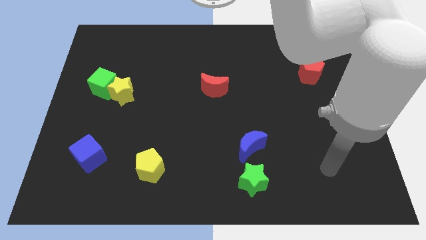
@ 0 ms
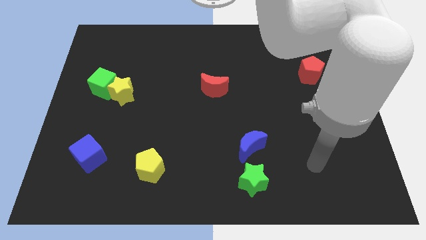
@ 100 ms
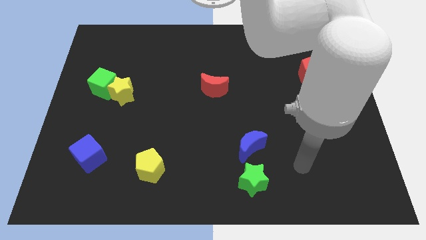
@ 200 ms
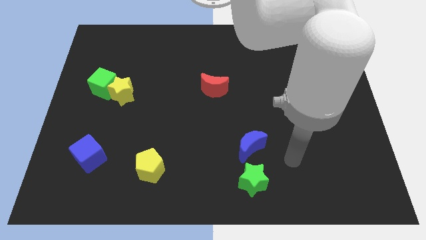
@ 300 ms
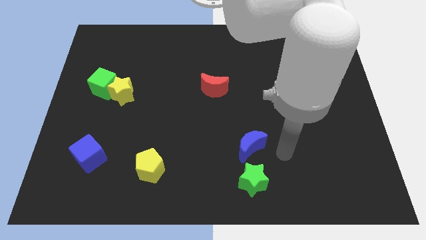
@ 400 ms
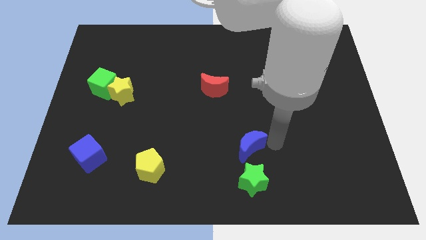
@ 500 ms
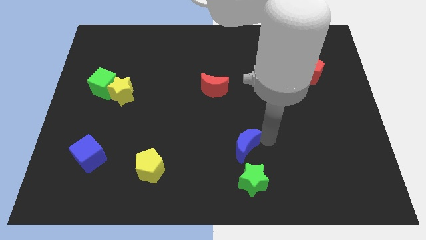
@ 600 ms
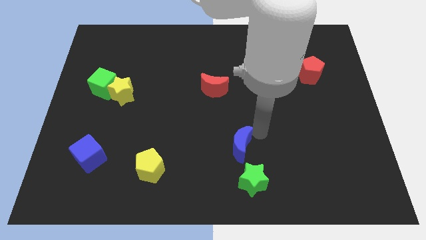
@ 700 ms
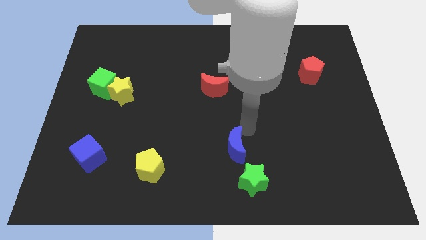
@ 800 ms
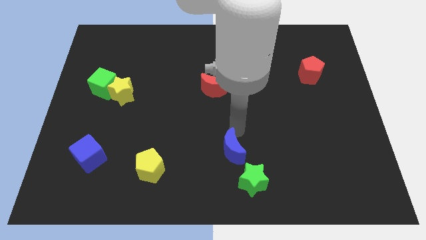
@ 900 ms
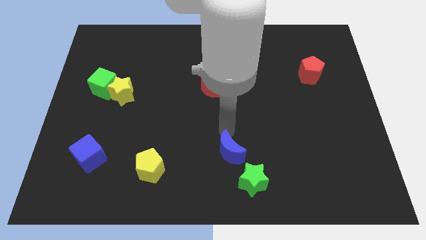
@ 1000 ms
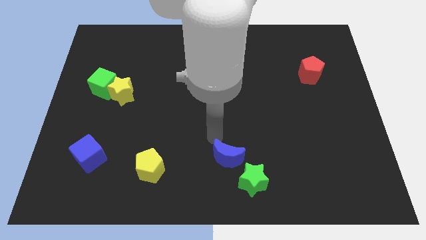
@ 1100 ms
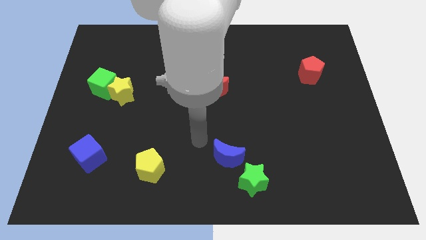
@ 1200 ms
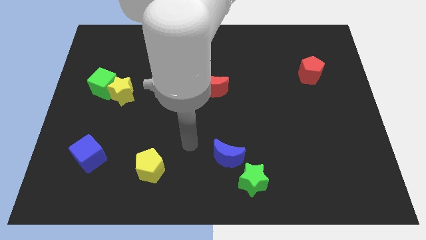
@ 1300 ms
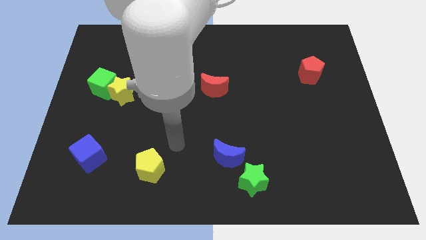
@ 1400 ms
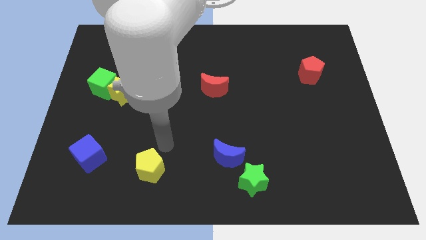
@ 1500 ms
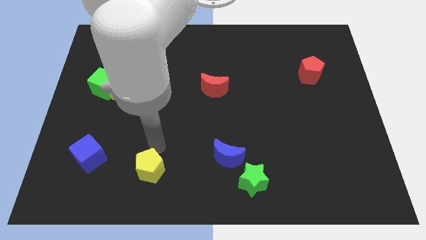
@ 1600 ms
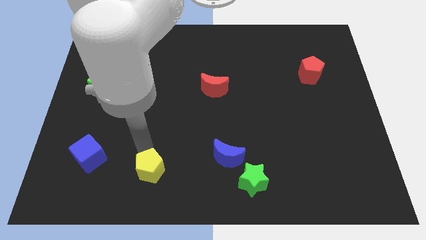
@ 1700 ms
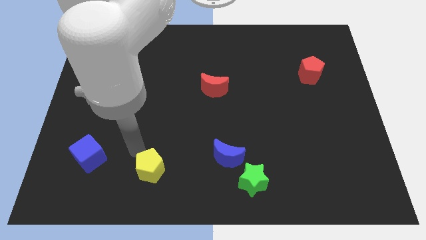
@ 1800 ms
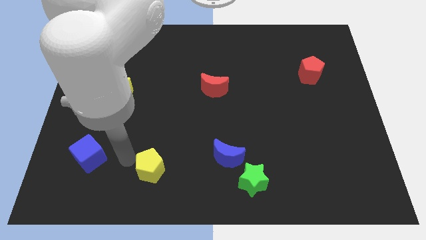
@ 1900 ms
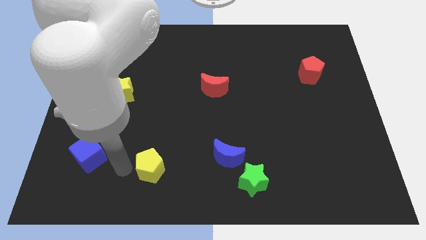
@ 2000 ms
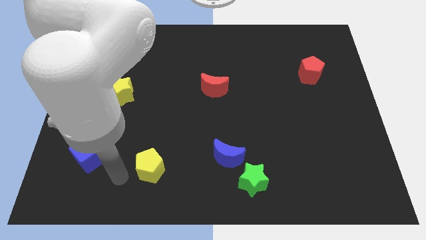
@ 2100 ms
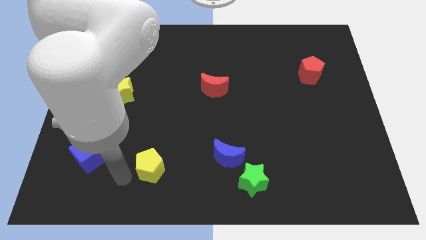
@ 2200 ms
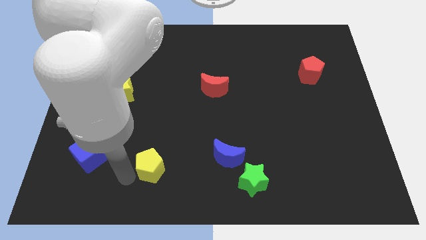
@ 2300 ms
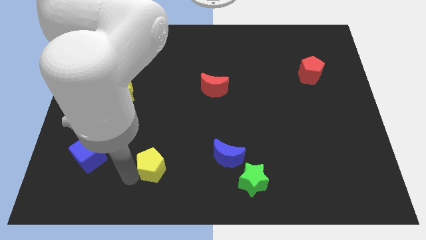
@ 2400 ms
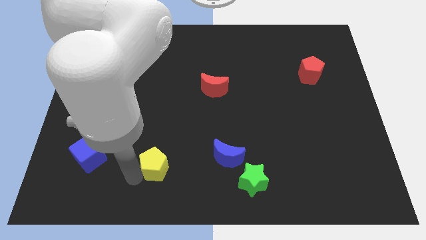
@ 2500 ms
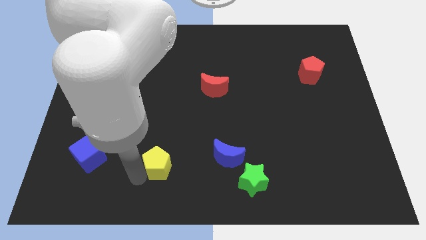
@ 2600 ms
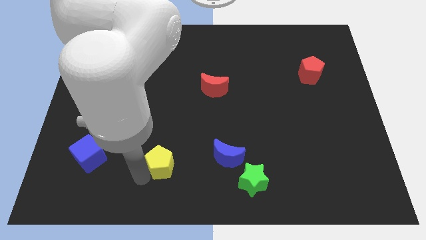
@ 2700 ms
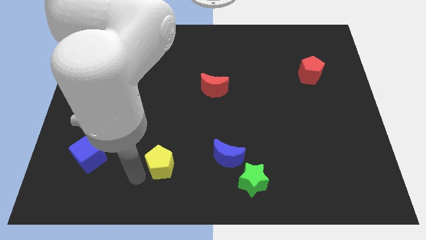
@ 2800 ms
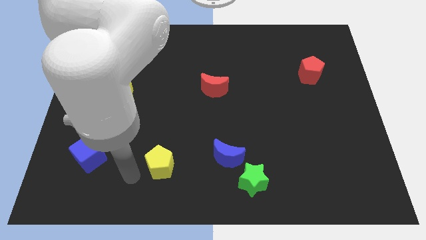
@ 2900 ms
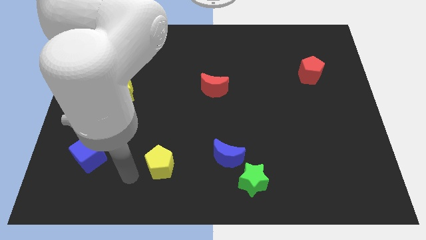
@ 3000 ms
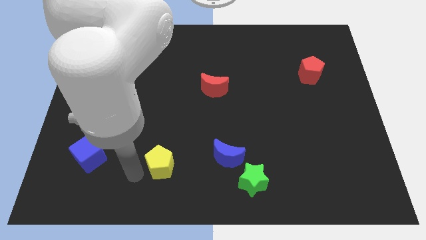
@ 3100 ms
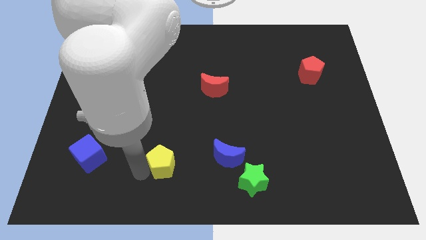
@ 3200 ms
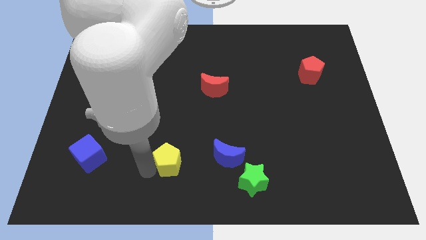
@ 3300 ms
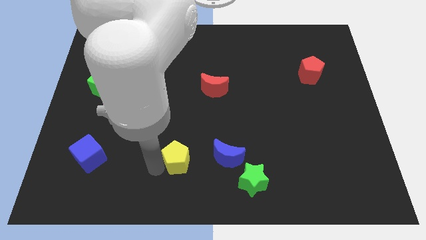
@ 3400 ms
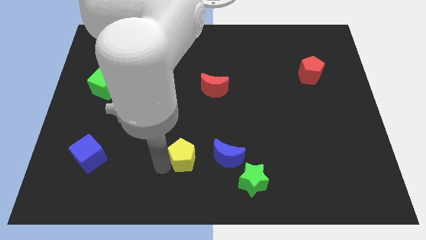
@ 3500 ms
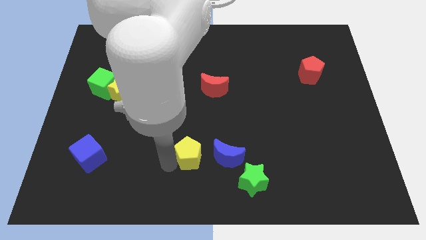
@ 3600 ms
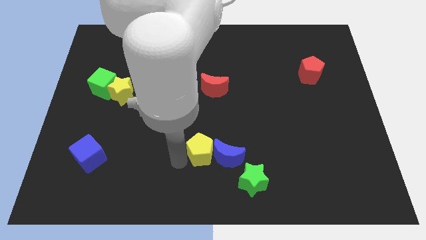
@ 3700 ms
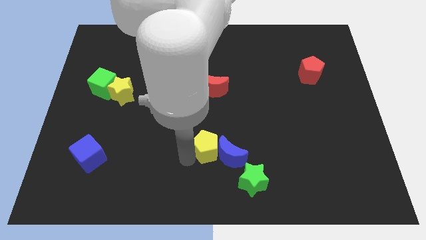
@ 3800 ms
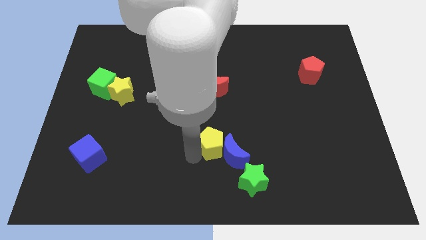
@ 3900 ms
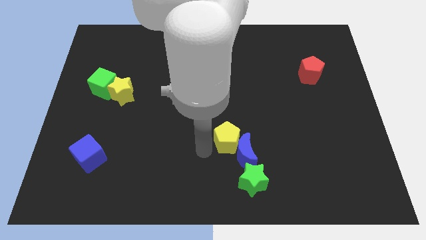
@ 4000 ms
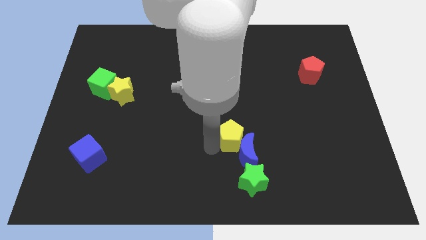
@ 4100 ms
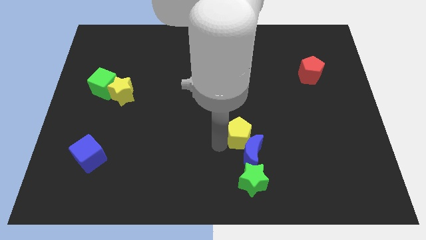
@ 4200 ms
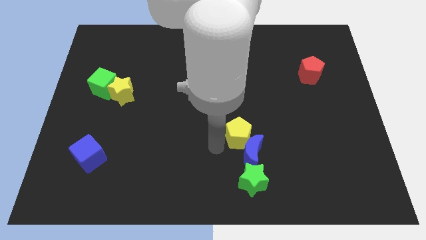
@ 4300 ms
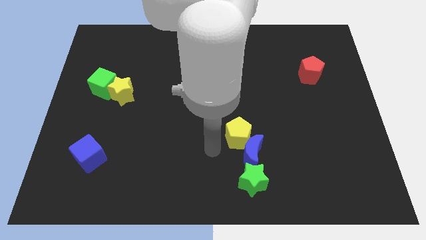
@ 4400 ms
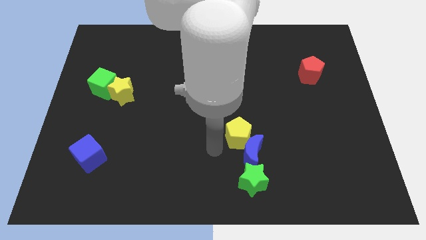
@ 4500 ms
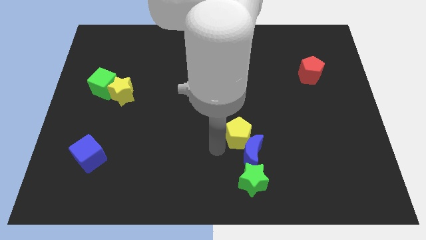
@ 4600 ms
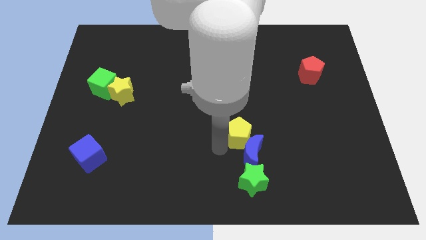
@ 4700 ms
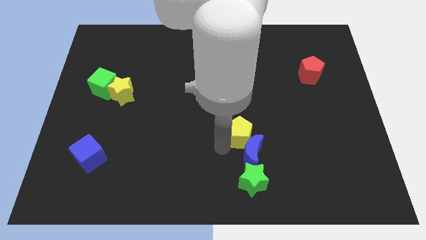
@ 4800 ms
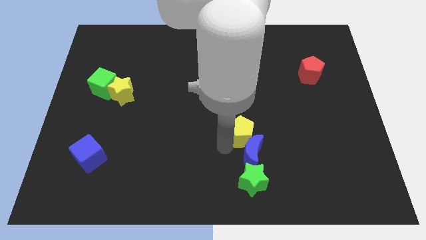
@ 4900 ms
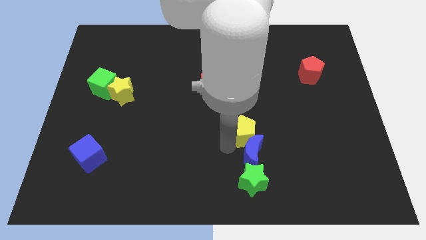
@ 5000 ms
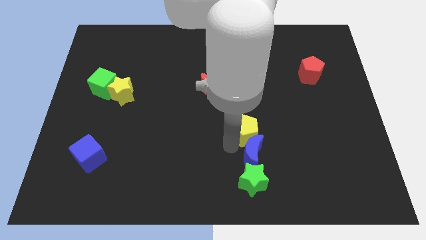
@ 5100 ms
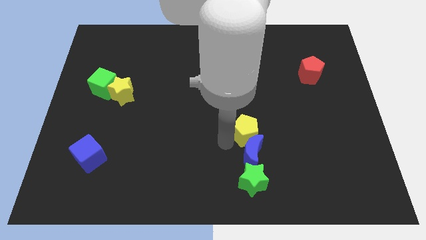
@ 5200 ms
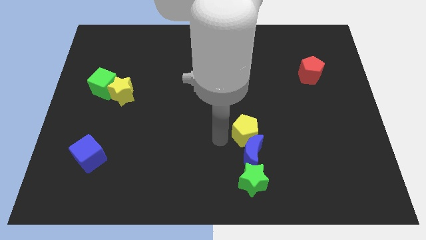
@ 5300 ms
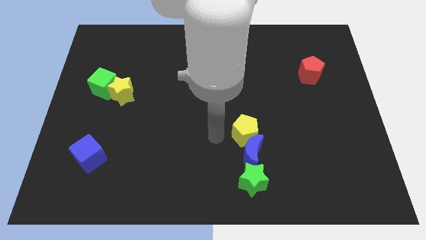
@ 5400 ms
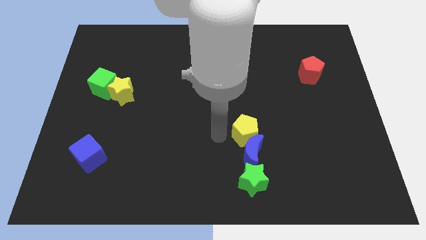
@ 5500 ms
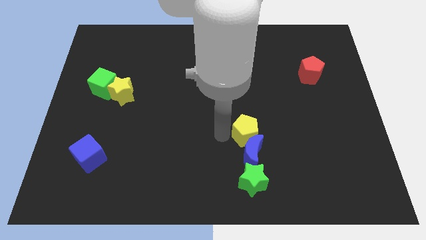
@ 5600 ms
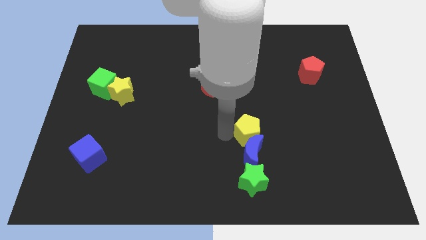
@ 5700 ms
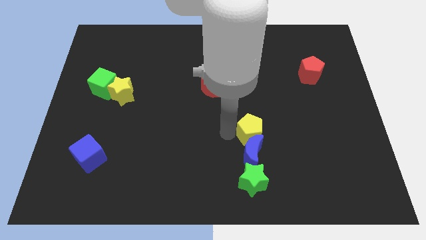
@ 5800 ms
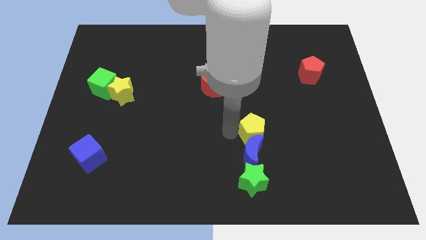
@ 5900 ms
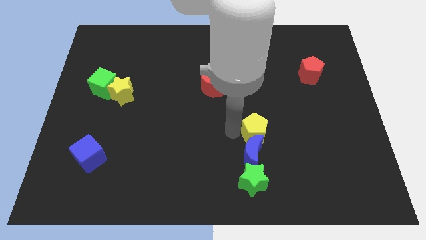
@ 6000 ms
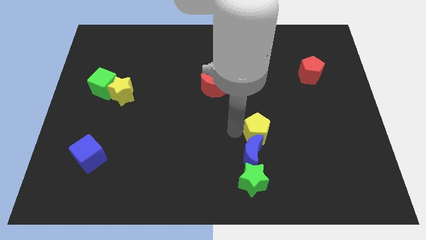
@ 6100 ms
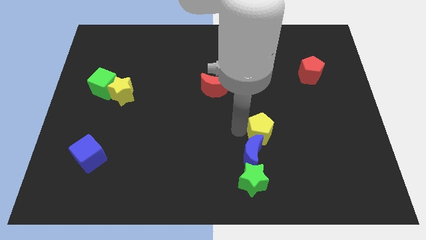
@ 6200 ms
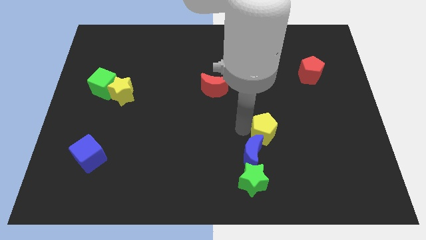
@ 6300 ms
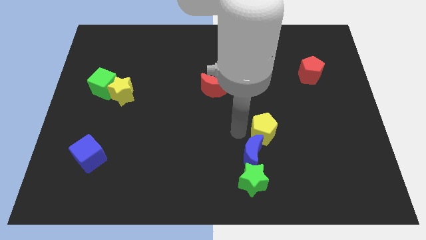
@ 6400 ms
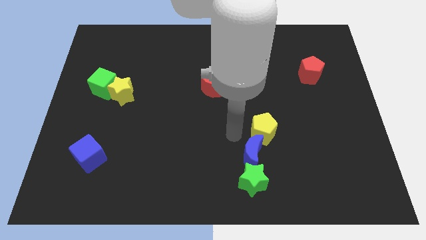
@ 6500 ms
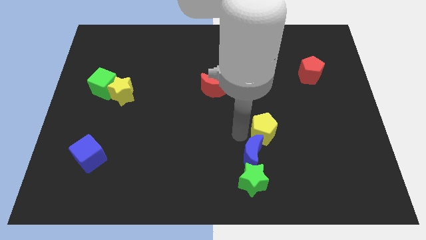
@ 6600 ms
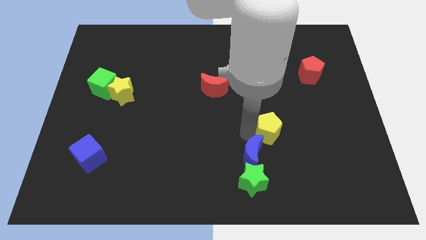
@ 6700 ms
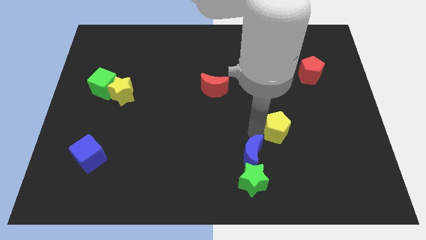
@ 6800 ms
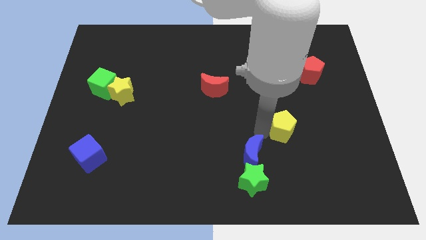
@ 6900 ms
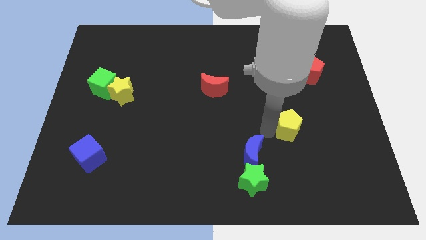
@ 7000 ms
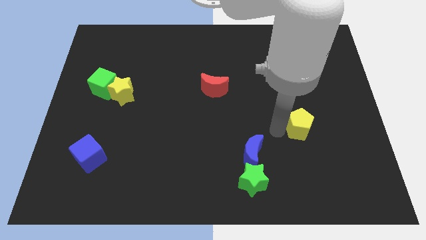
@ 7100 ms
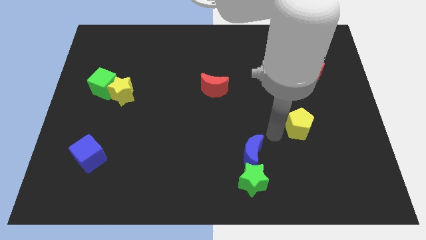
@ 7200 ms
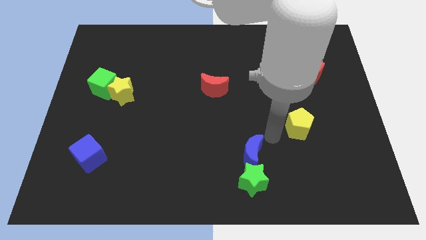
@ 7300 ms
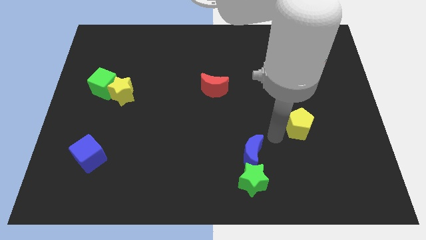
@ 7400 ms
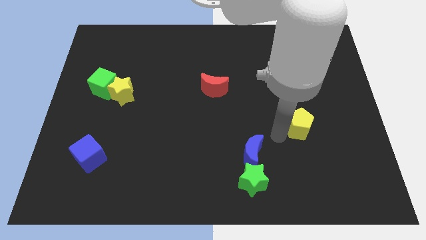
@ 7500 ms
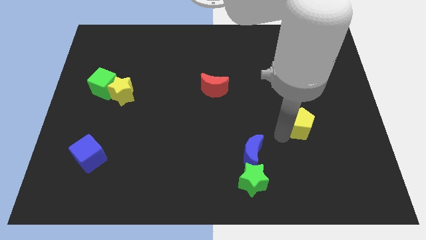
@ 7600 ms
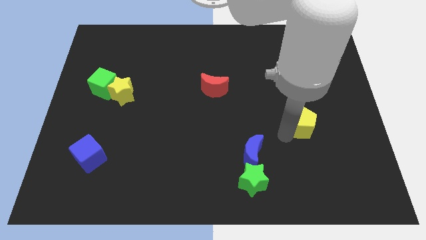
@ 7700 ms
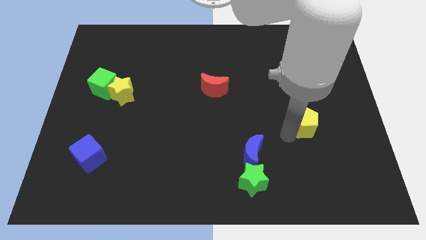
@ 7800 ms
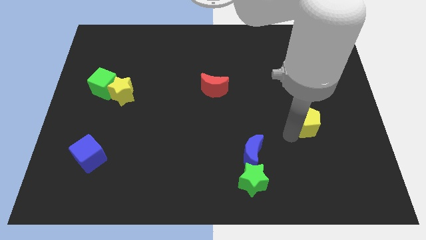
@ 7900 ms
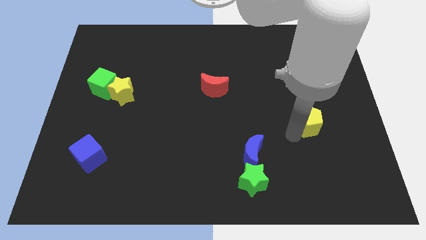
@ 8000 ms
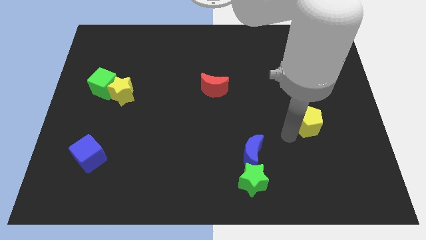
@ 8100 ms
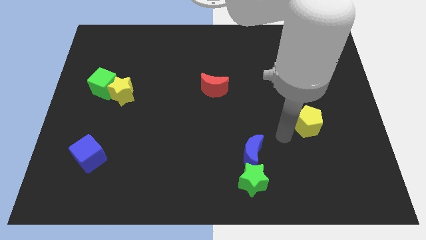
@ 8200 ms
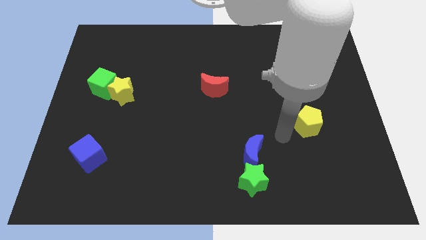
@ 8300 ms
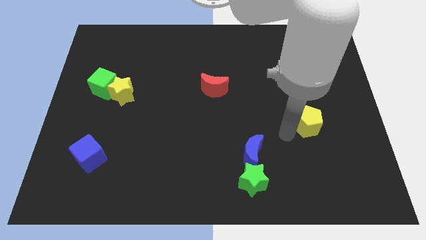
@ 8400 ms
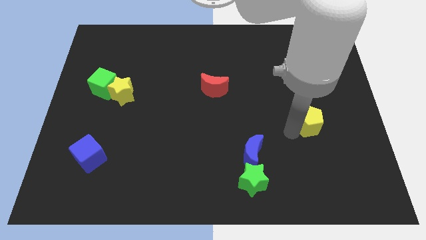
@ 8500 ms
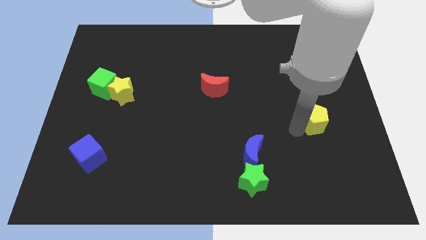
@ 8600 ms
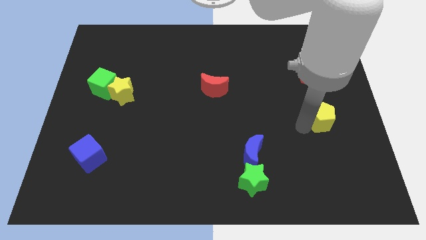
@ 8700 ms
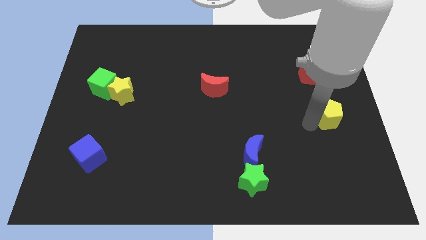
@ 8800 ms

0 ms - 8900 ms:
put the yellow pentagon to the center right
